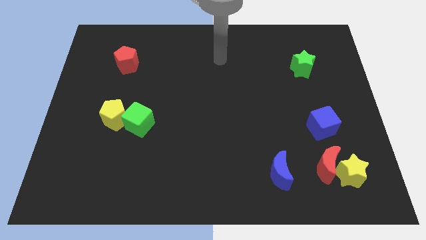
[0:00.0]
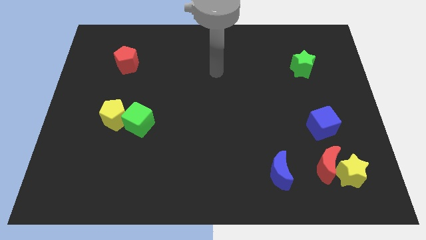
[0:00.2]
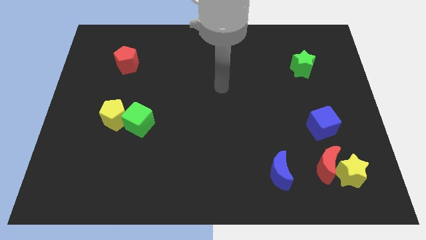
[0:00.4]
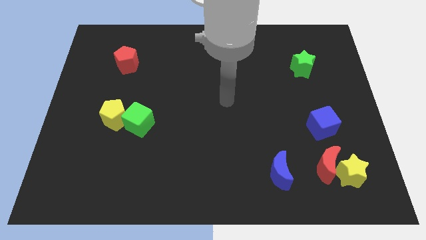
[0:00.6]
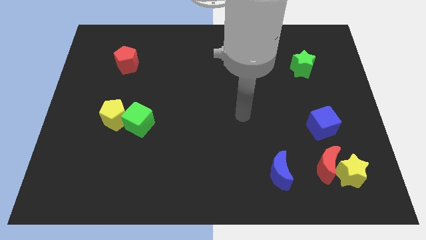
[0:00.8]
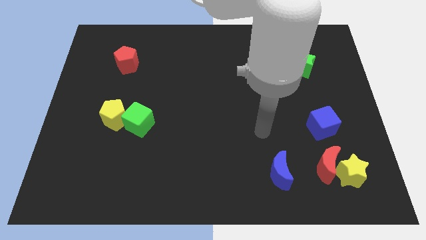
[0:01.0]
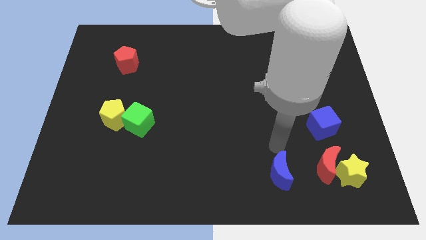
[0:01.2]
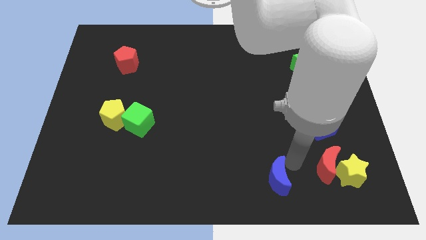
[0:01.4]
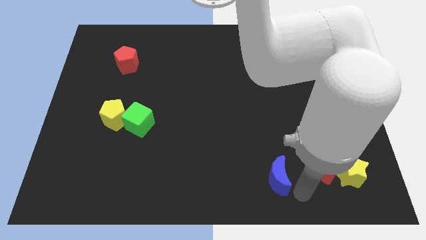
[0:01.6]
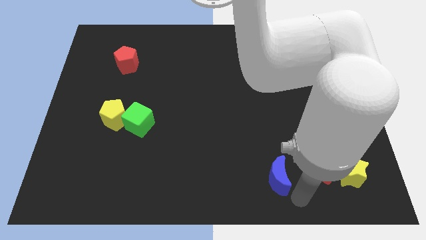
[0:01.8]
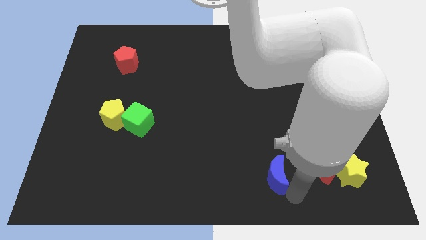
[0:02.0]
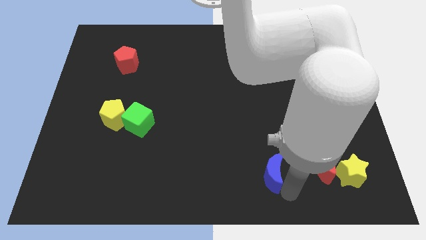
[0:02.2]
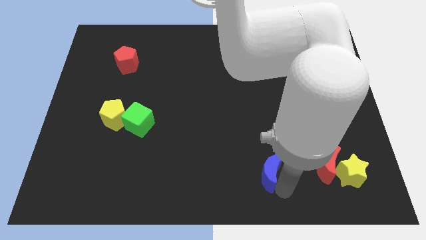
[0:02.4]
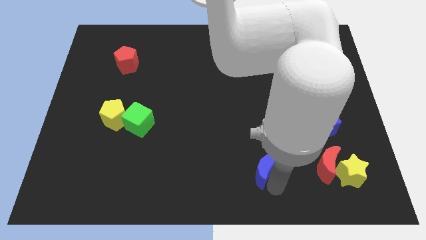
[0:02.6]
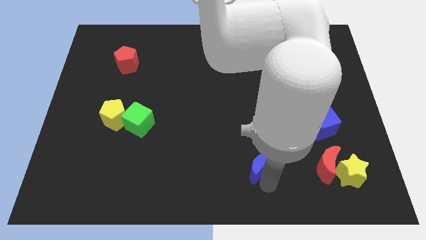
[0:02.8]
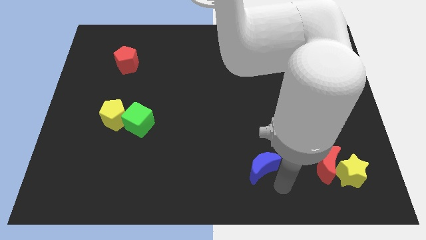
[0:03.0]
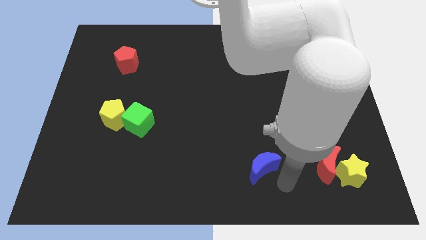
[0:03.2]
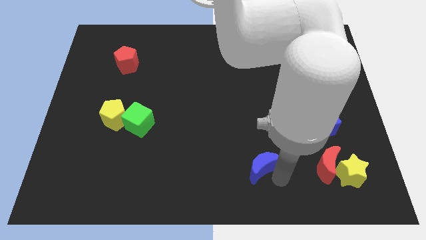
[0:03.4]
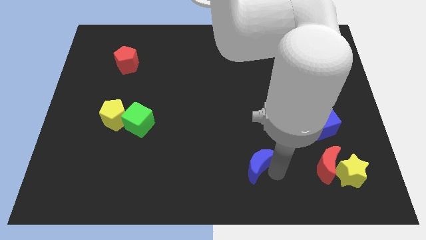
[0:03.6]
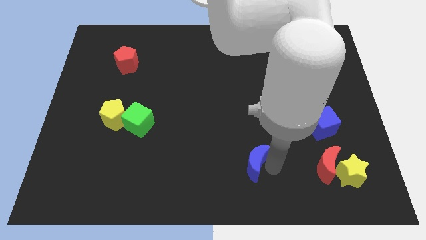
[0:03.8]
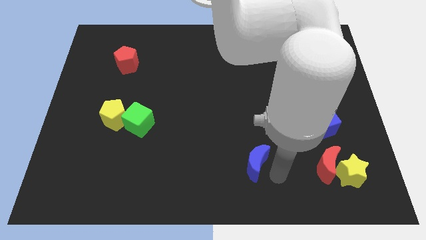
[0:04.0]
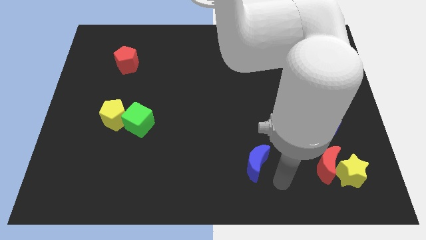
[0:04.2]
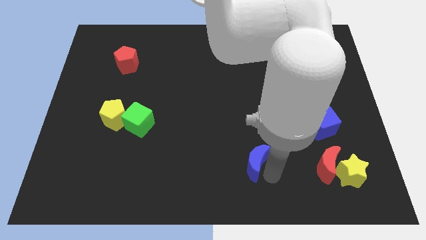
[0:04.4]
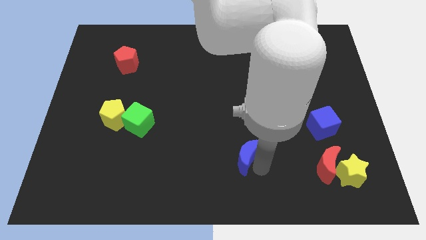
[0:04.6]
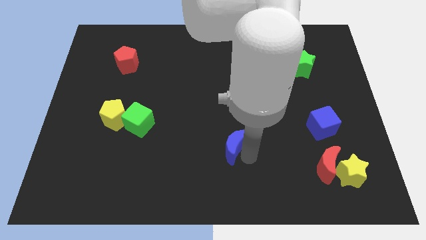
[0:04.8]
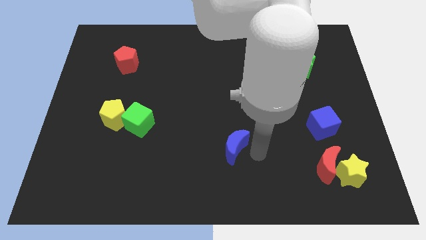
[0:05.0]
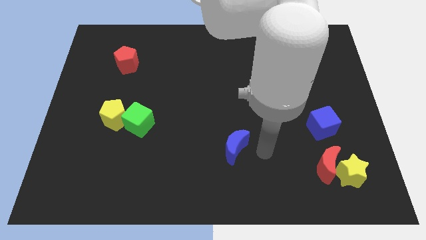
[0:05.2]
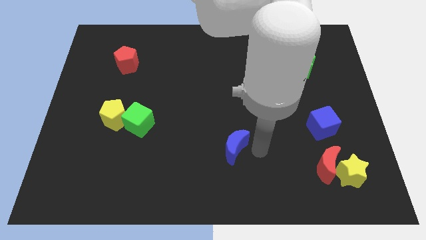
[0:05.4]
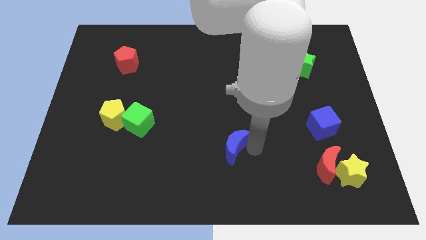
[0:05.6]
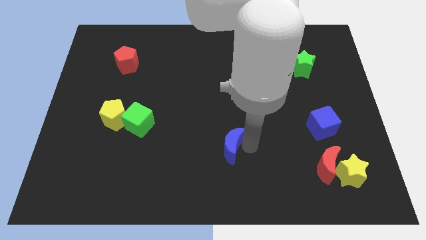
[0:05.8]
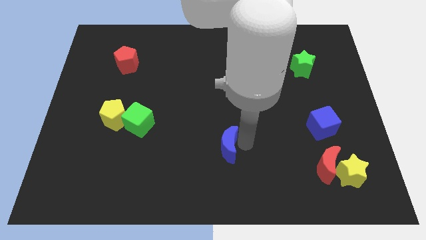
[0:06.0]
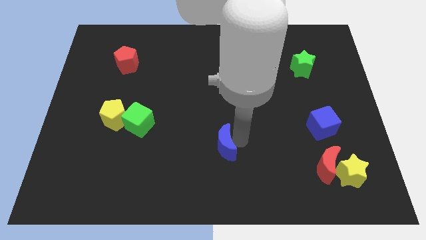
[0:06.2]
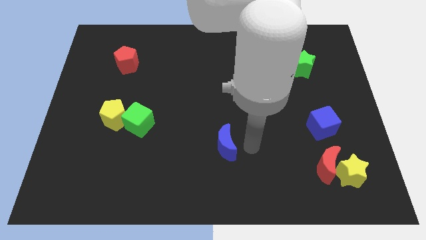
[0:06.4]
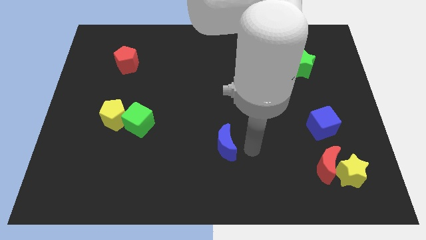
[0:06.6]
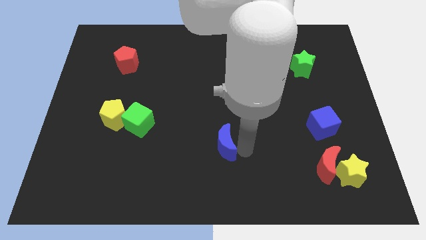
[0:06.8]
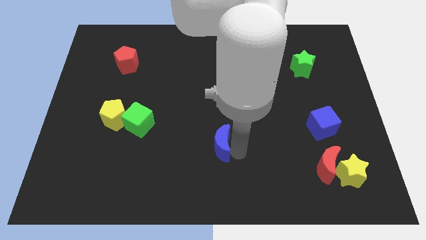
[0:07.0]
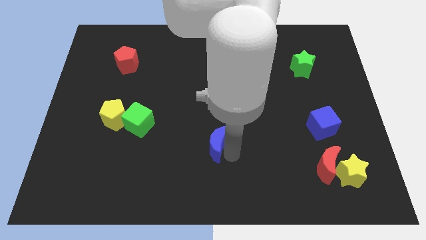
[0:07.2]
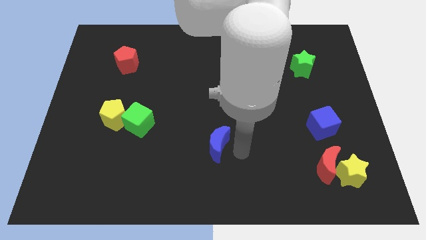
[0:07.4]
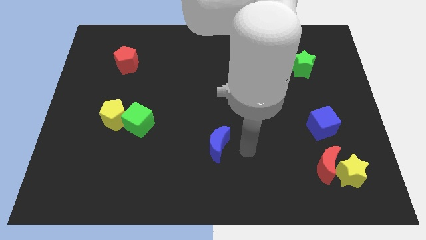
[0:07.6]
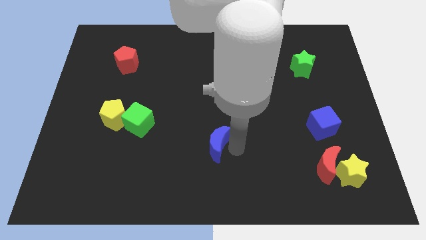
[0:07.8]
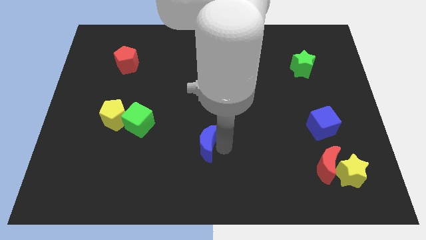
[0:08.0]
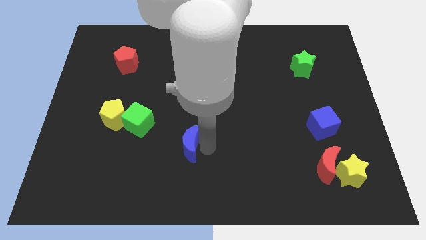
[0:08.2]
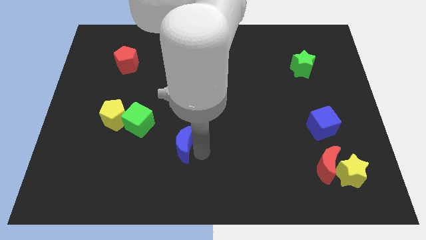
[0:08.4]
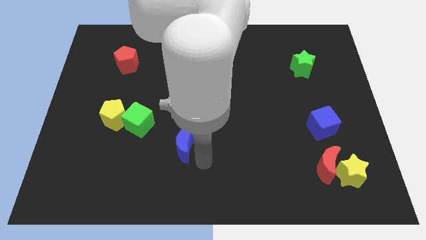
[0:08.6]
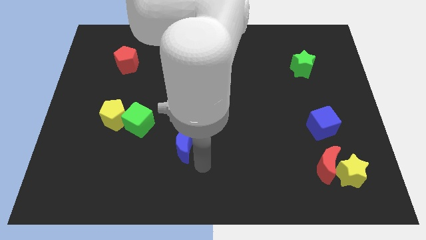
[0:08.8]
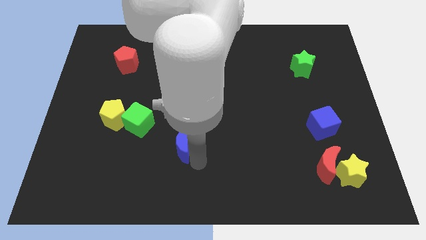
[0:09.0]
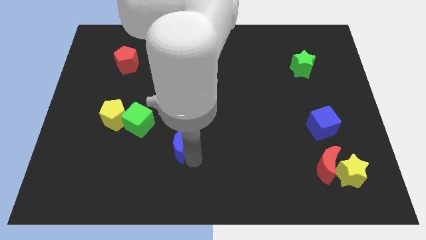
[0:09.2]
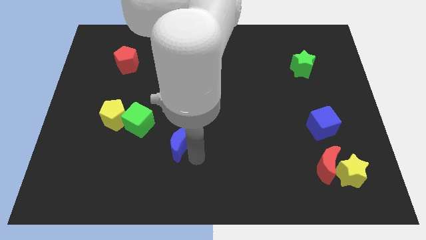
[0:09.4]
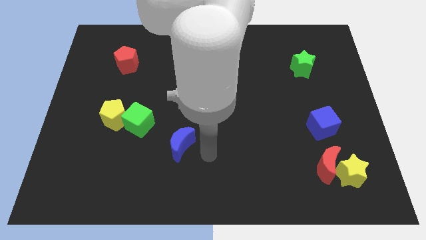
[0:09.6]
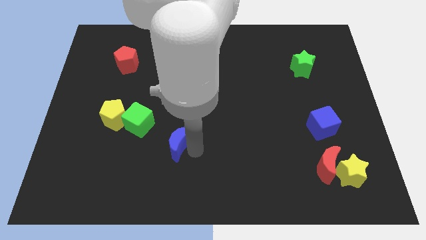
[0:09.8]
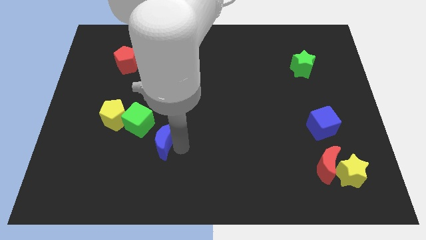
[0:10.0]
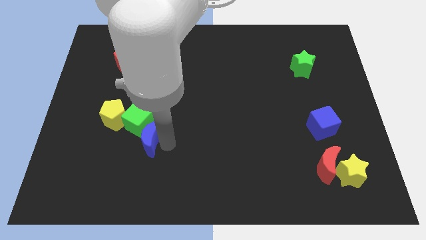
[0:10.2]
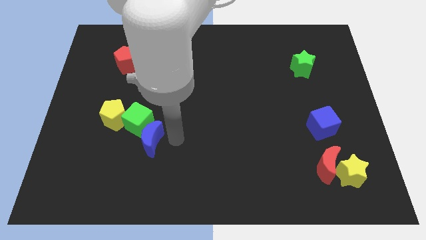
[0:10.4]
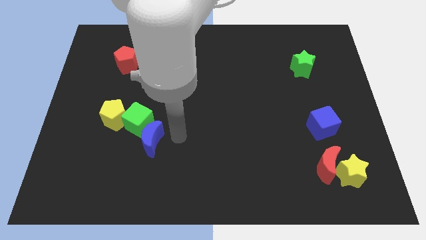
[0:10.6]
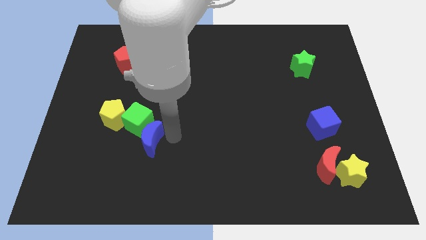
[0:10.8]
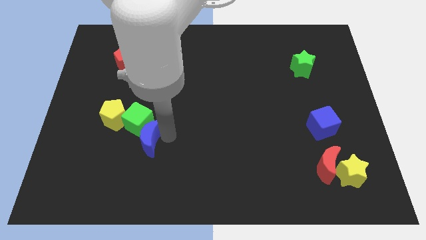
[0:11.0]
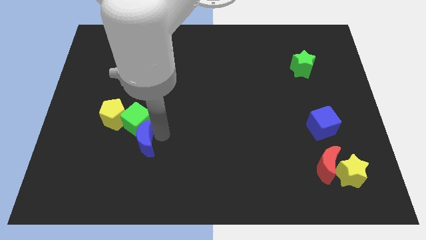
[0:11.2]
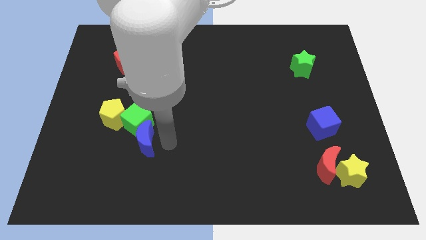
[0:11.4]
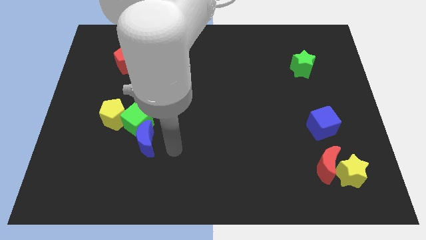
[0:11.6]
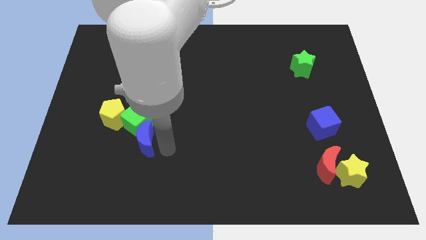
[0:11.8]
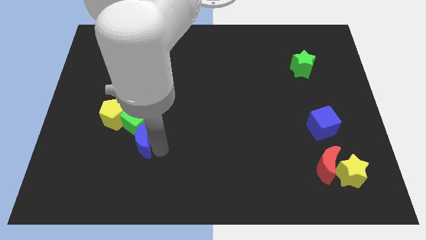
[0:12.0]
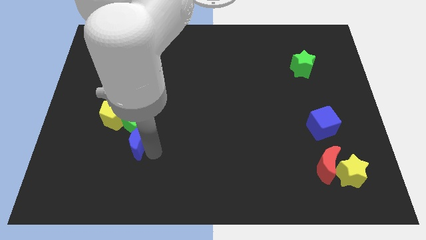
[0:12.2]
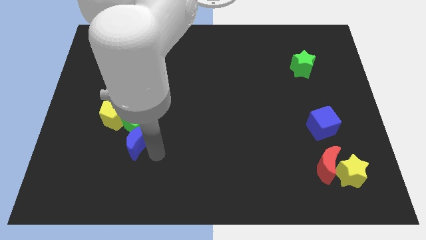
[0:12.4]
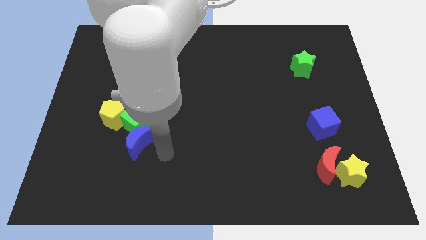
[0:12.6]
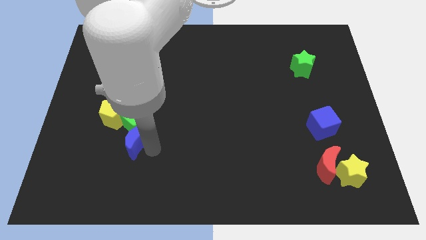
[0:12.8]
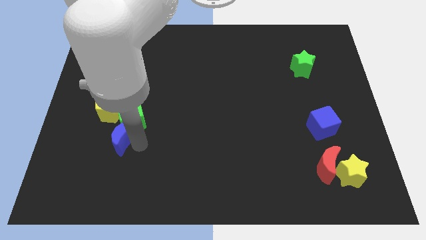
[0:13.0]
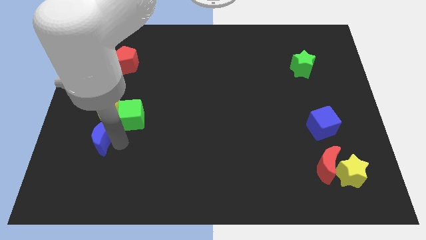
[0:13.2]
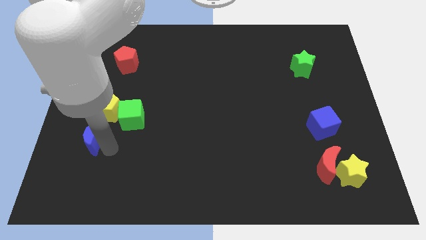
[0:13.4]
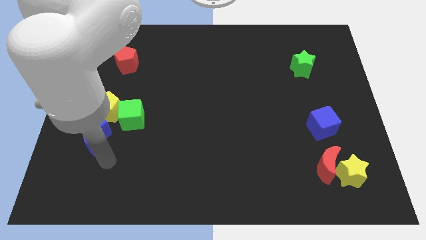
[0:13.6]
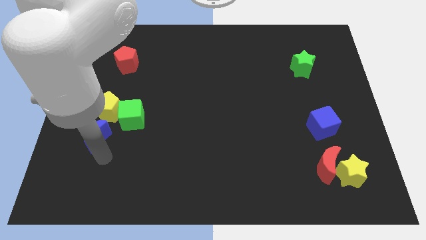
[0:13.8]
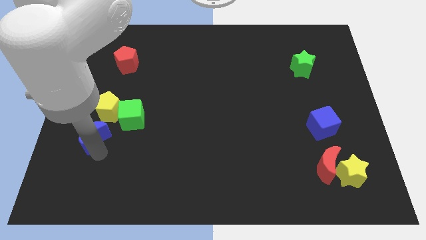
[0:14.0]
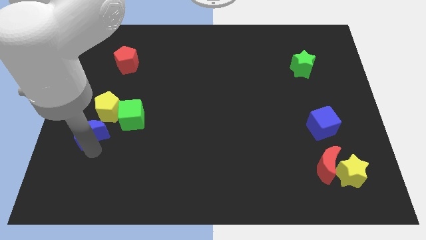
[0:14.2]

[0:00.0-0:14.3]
put the blue moon left of the green cube

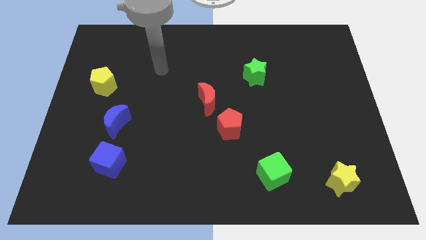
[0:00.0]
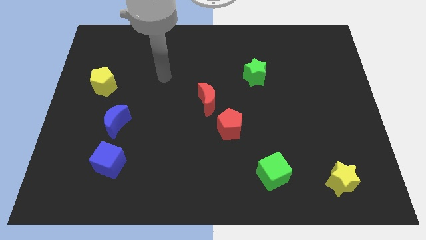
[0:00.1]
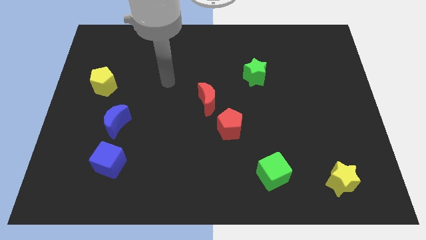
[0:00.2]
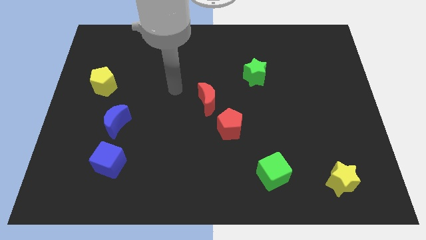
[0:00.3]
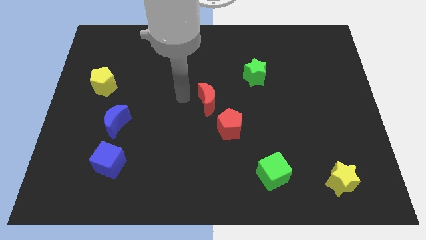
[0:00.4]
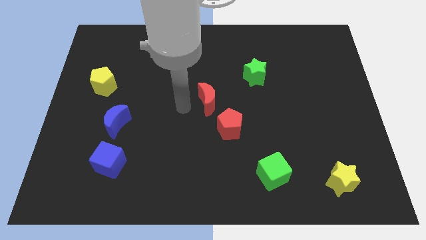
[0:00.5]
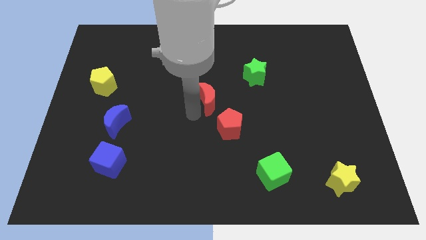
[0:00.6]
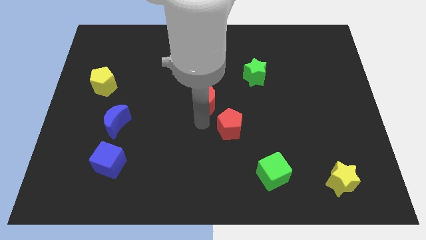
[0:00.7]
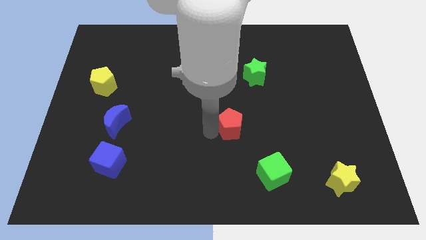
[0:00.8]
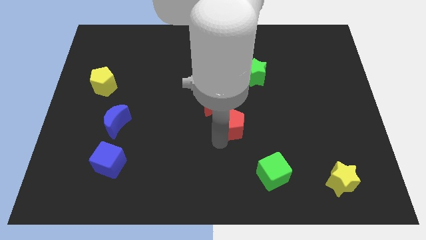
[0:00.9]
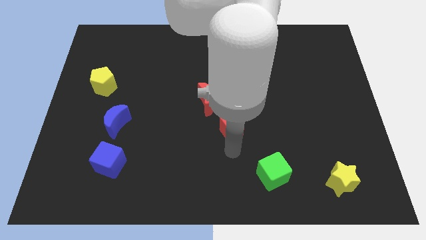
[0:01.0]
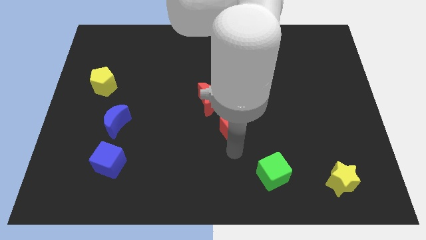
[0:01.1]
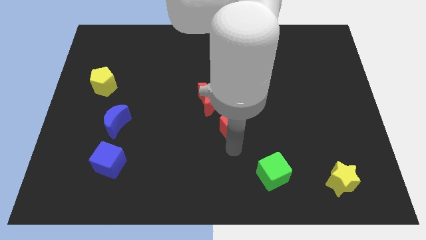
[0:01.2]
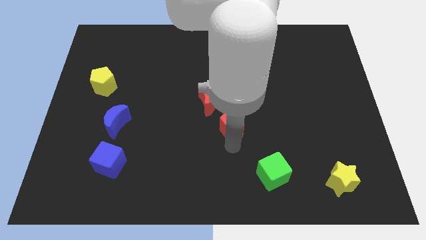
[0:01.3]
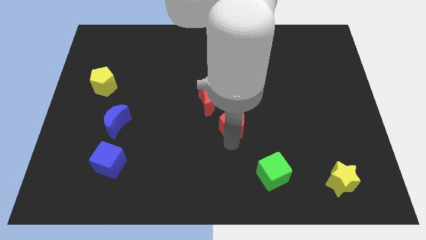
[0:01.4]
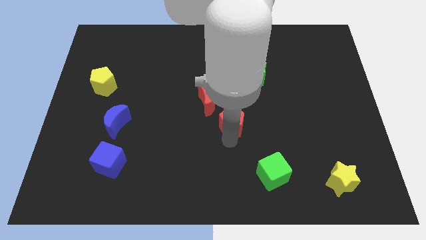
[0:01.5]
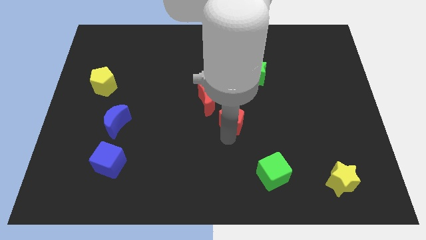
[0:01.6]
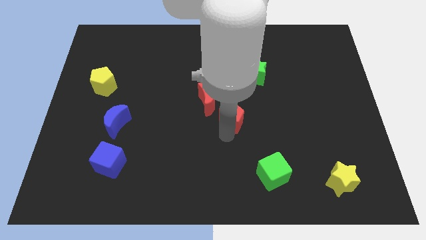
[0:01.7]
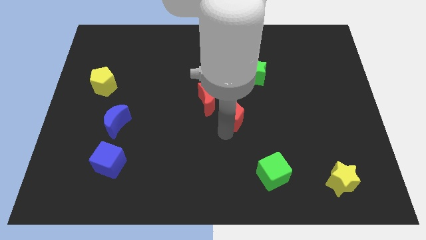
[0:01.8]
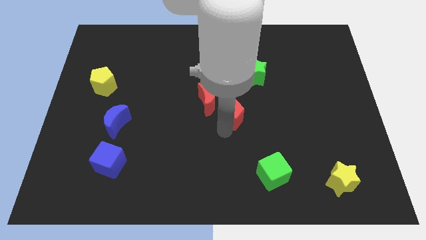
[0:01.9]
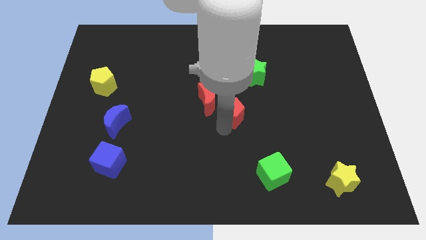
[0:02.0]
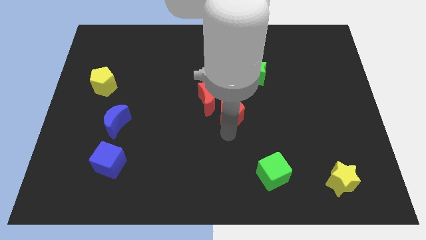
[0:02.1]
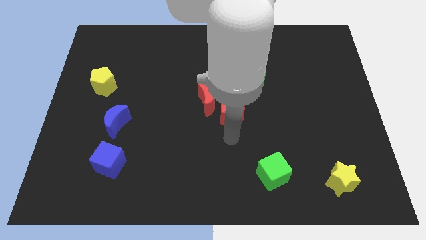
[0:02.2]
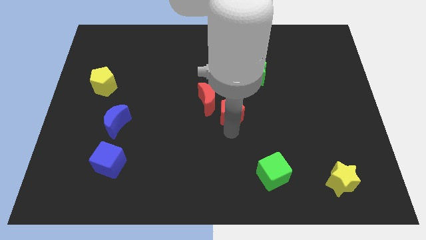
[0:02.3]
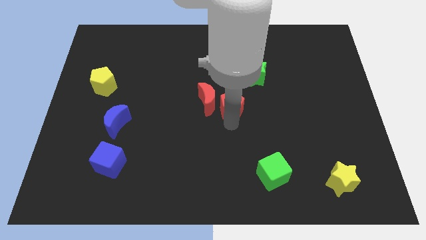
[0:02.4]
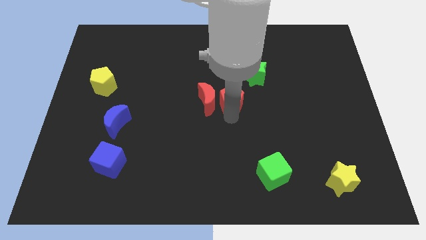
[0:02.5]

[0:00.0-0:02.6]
put the red pentagon to the top right of the red moon
